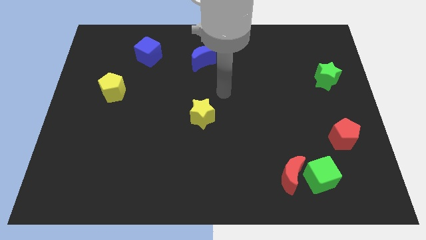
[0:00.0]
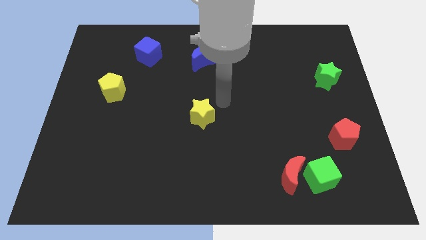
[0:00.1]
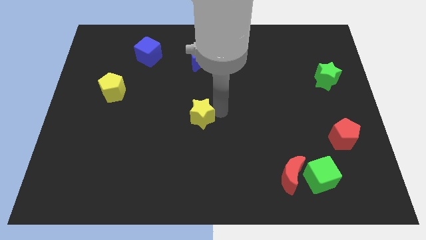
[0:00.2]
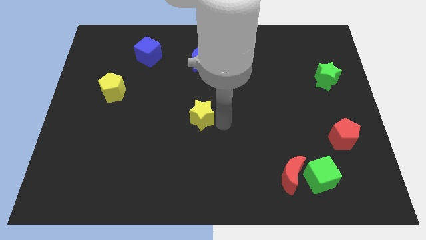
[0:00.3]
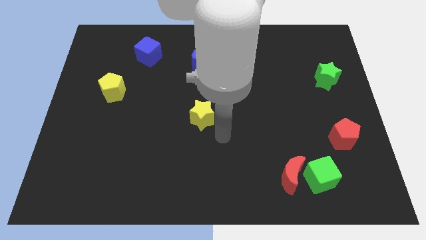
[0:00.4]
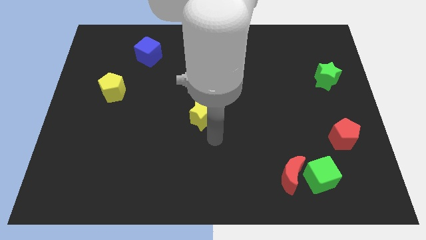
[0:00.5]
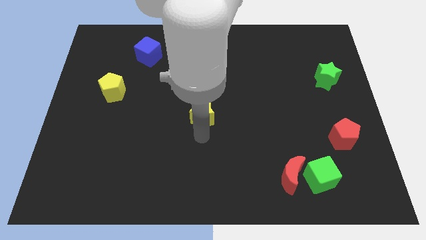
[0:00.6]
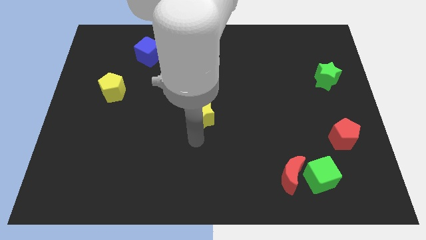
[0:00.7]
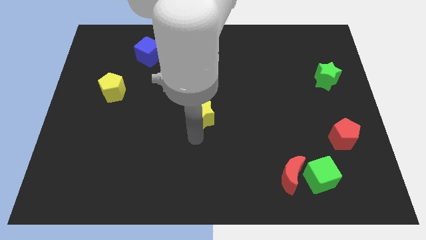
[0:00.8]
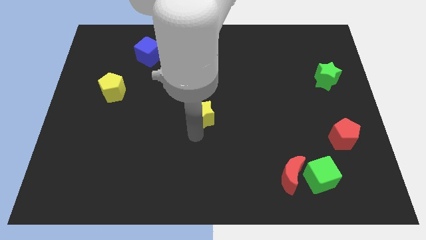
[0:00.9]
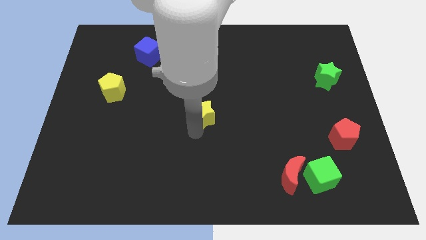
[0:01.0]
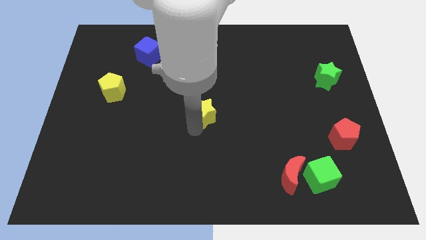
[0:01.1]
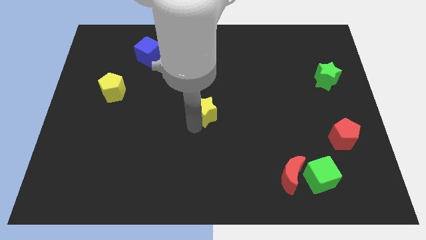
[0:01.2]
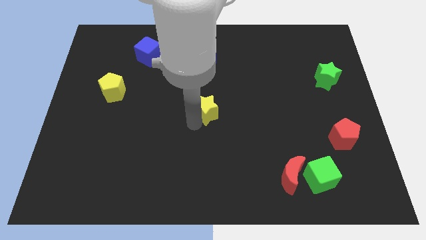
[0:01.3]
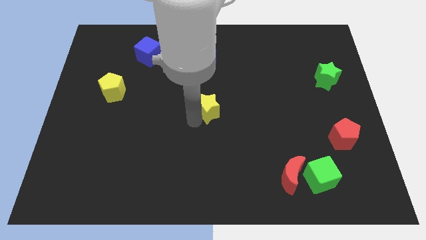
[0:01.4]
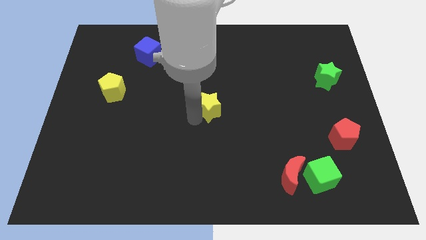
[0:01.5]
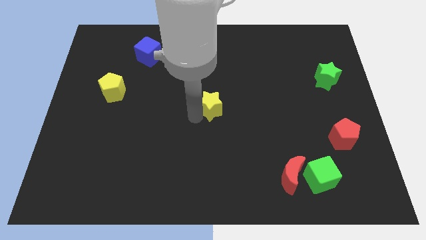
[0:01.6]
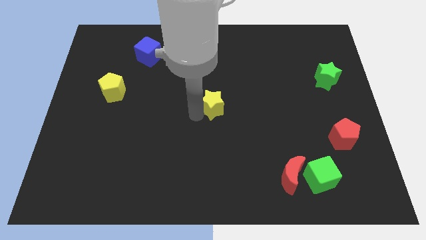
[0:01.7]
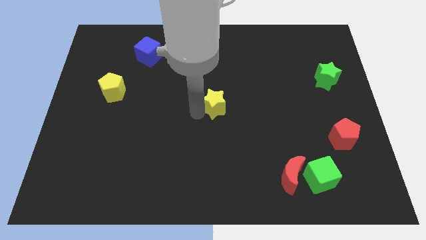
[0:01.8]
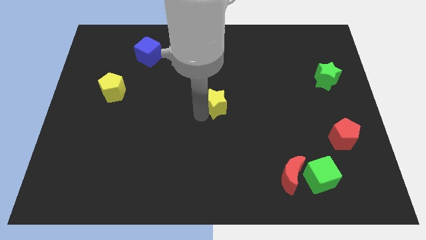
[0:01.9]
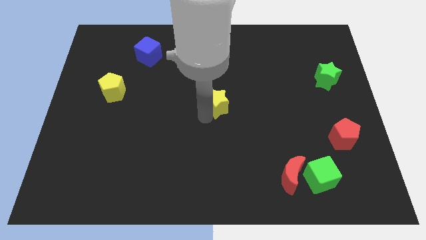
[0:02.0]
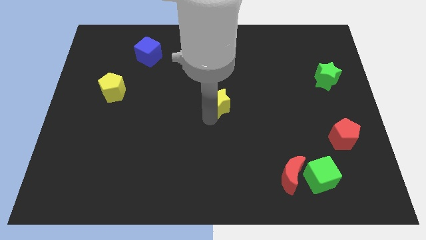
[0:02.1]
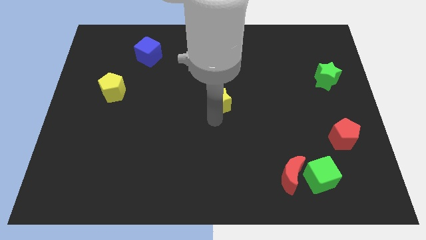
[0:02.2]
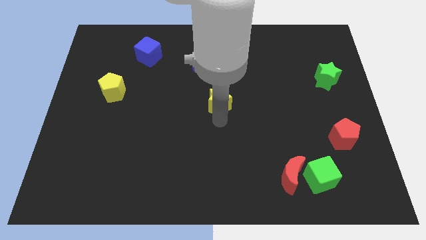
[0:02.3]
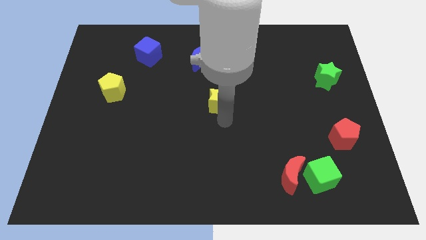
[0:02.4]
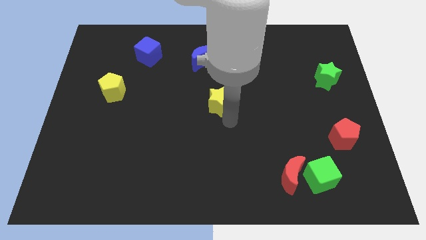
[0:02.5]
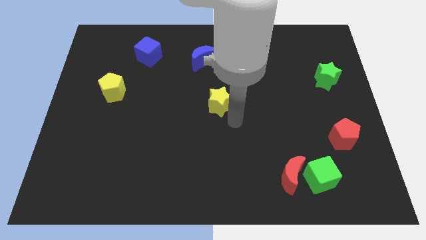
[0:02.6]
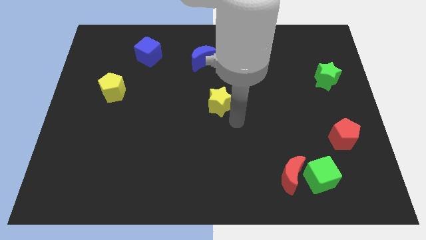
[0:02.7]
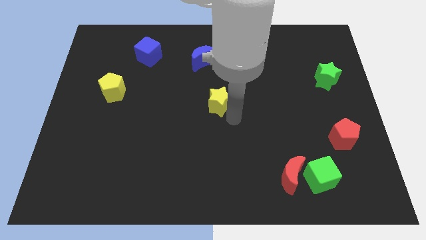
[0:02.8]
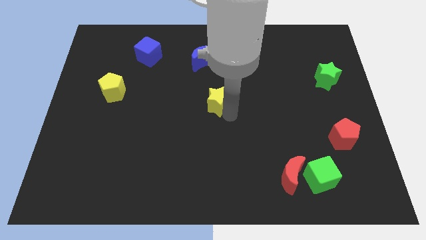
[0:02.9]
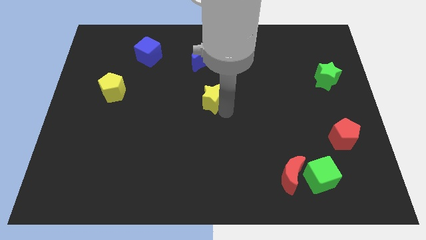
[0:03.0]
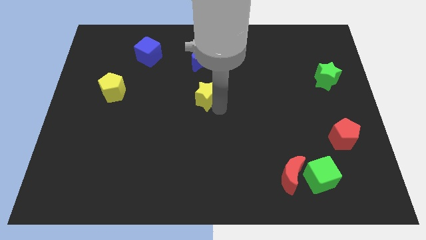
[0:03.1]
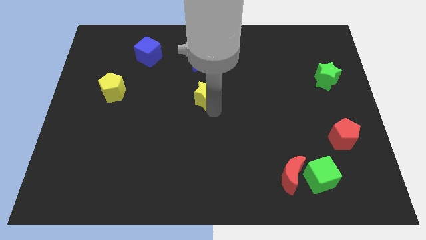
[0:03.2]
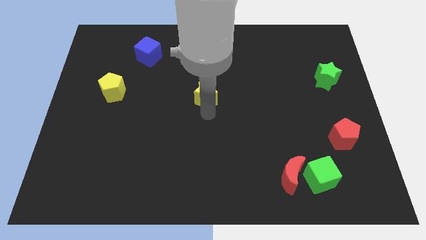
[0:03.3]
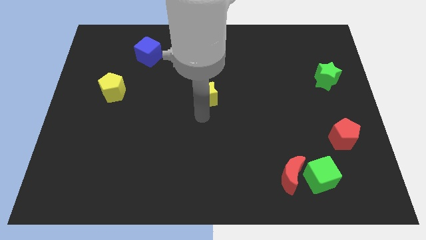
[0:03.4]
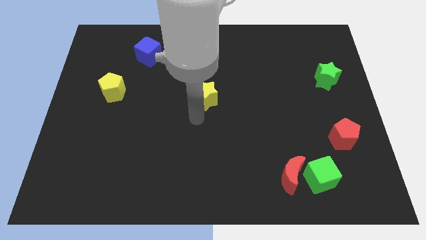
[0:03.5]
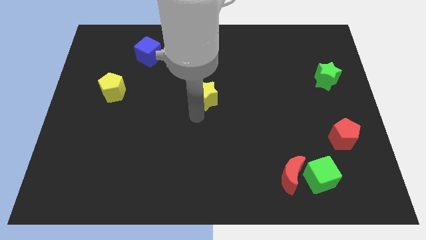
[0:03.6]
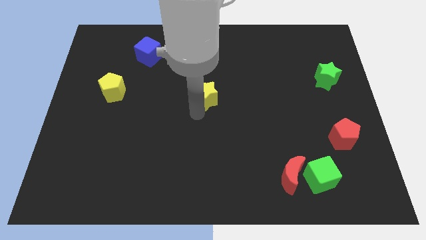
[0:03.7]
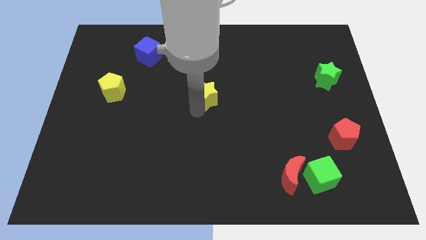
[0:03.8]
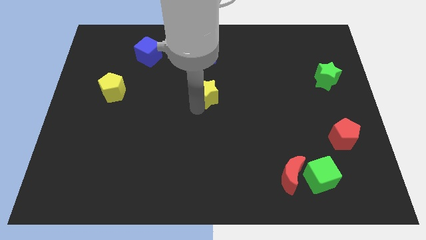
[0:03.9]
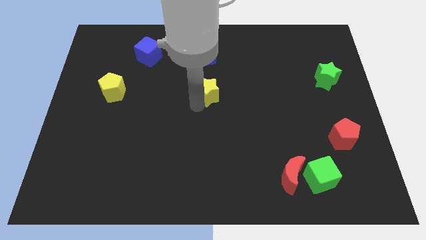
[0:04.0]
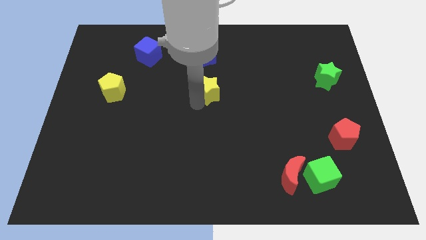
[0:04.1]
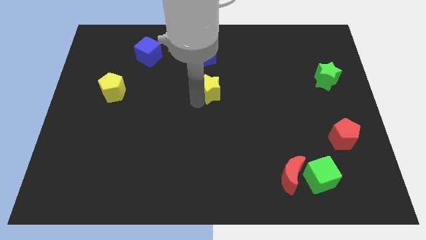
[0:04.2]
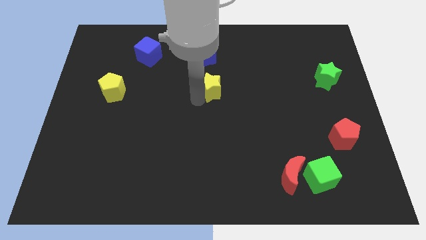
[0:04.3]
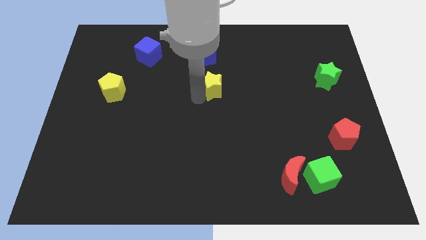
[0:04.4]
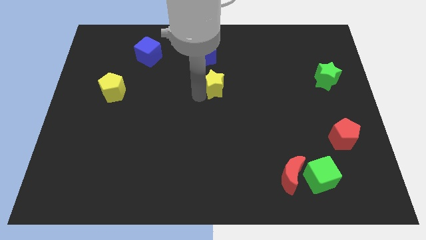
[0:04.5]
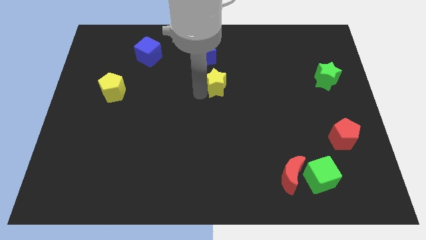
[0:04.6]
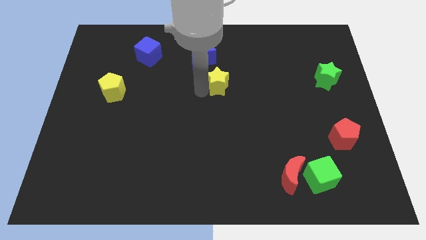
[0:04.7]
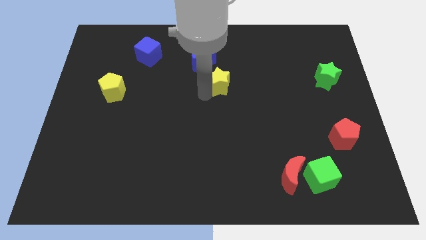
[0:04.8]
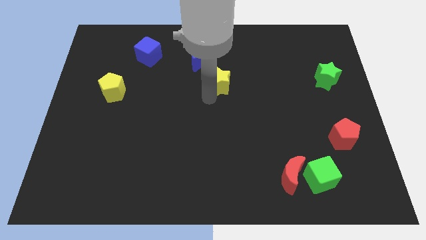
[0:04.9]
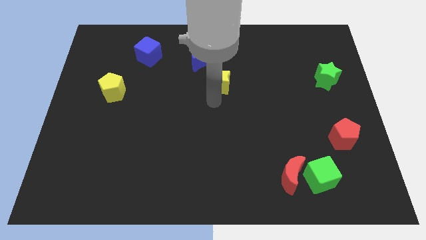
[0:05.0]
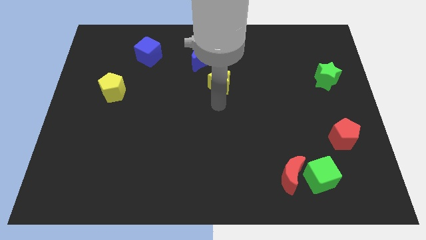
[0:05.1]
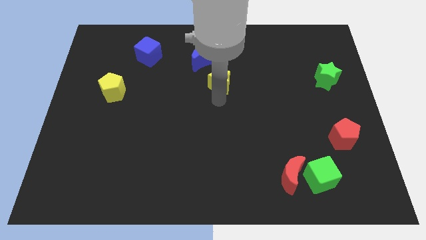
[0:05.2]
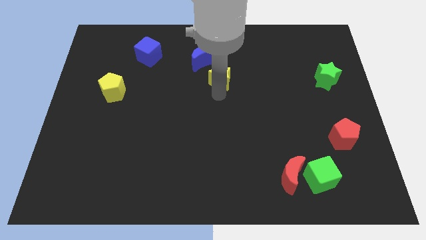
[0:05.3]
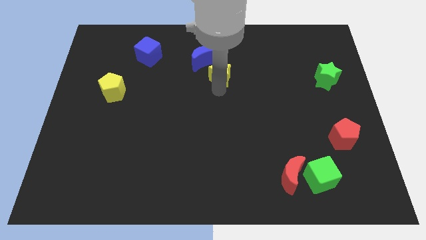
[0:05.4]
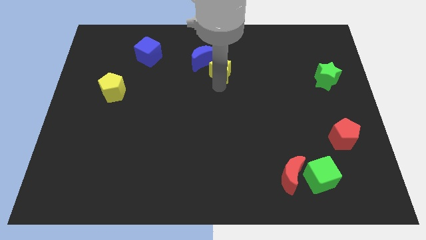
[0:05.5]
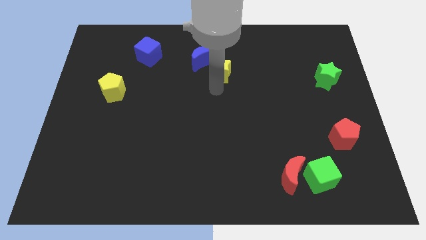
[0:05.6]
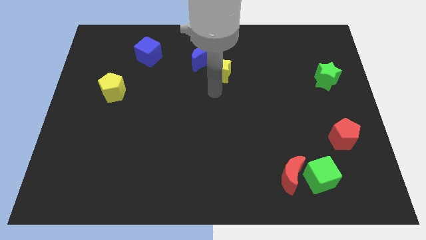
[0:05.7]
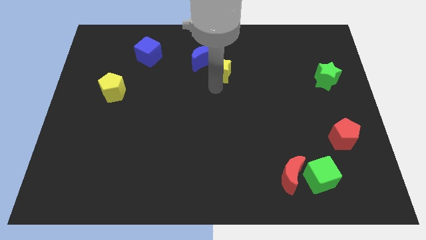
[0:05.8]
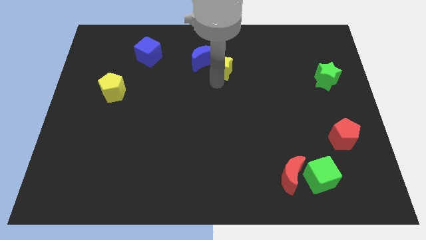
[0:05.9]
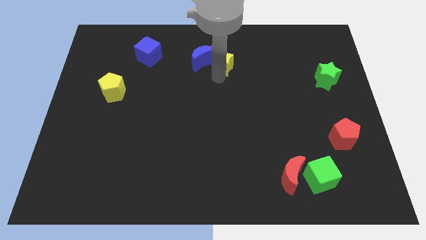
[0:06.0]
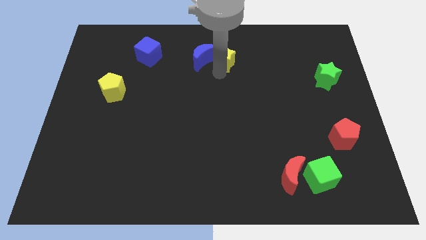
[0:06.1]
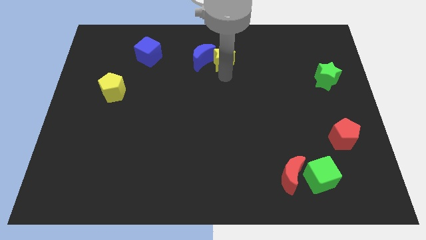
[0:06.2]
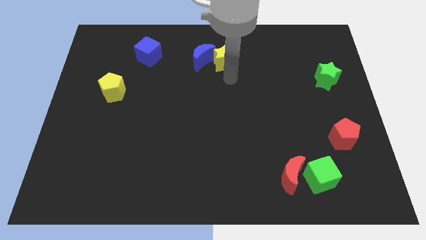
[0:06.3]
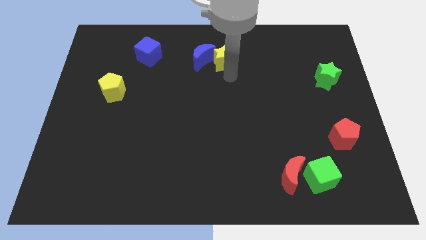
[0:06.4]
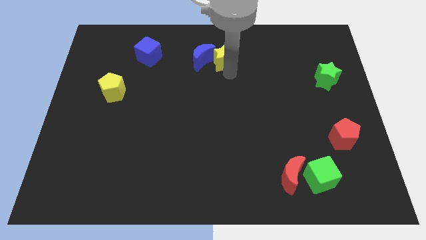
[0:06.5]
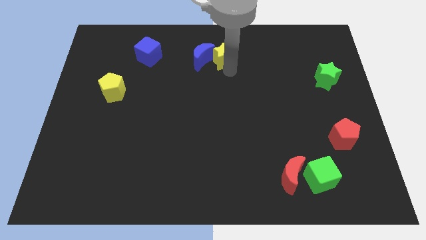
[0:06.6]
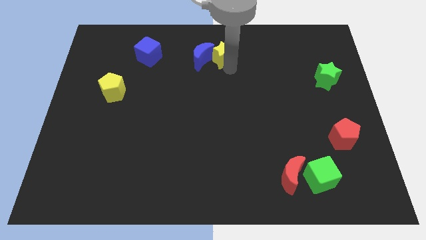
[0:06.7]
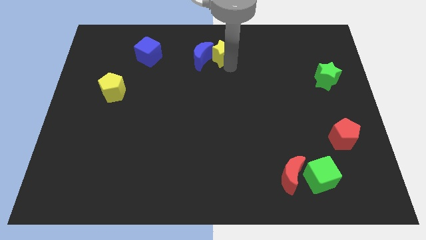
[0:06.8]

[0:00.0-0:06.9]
move the yellow star to the top side
